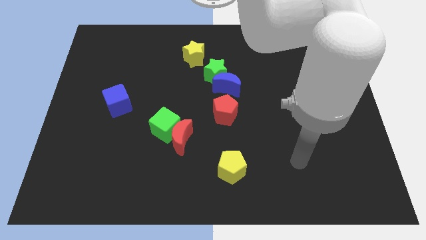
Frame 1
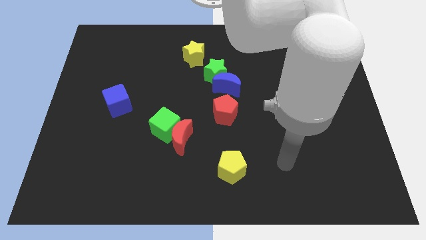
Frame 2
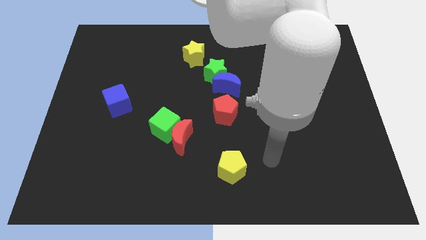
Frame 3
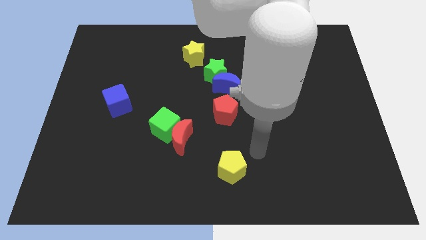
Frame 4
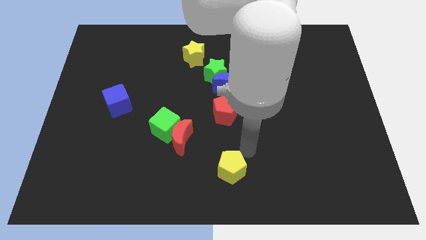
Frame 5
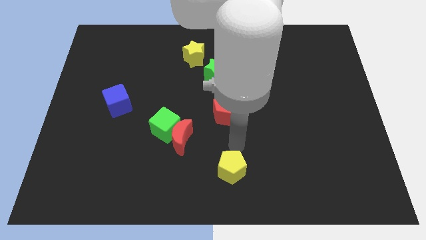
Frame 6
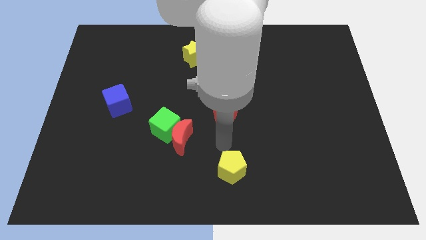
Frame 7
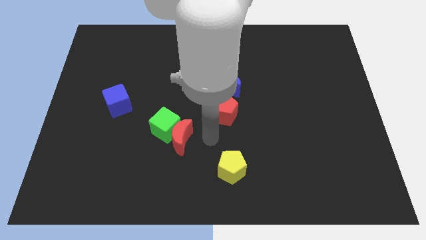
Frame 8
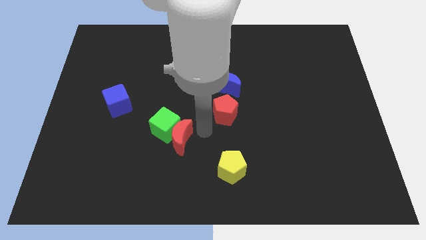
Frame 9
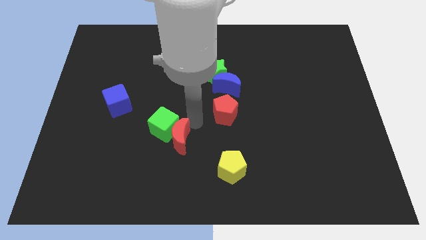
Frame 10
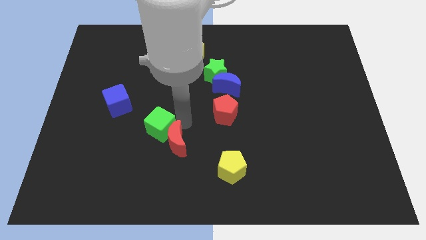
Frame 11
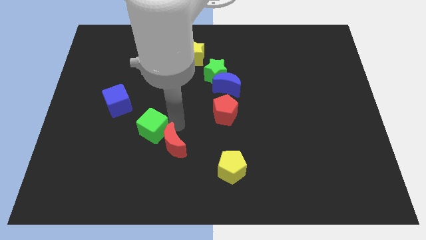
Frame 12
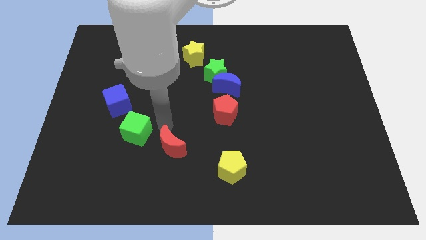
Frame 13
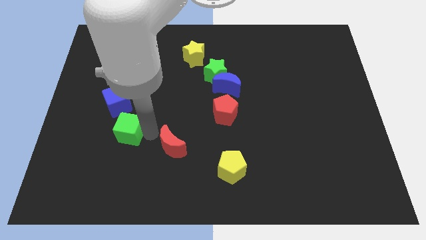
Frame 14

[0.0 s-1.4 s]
move the red moon away from the green cube

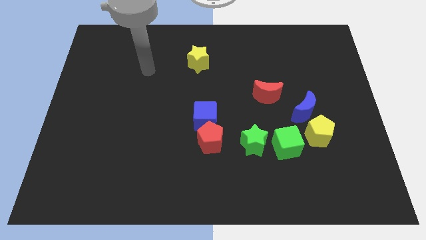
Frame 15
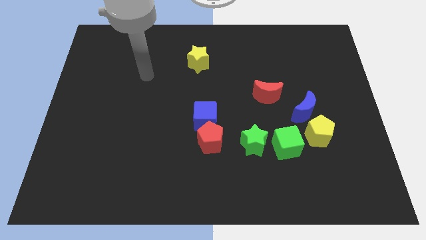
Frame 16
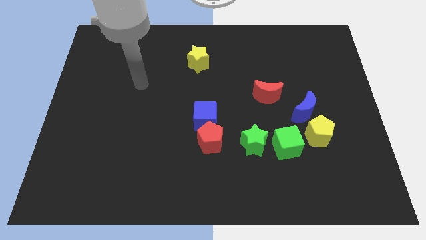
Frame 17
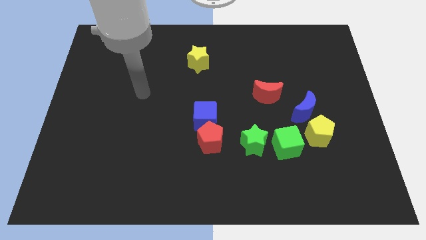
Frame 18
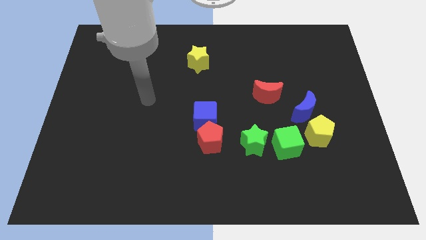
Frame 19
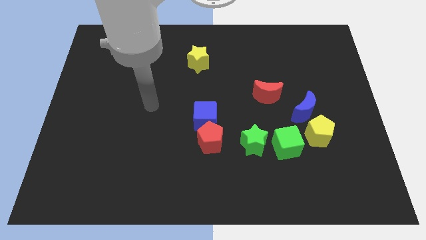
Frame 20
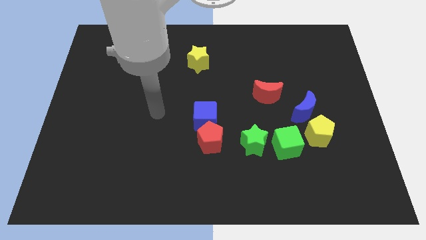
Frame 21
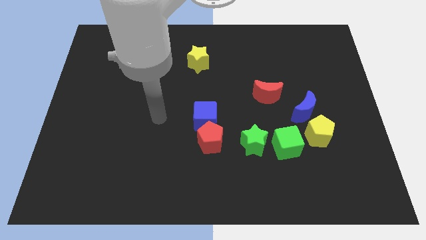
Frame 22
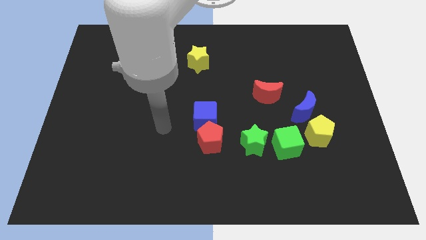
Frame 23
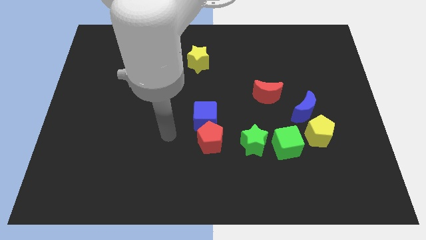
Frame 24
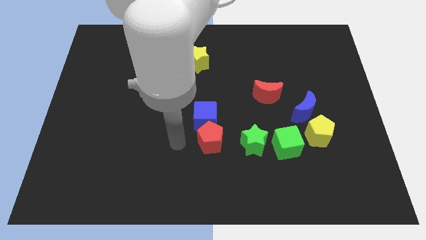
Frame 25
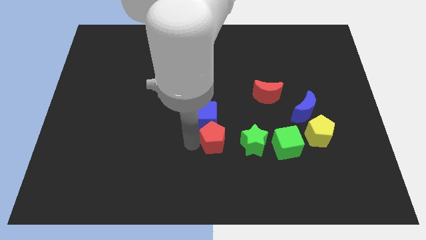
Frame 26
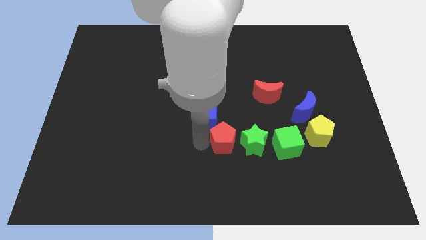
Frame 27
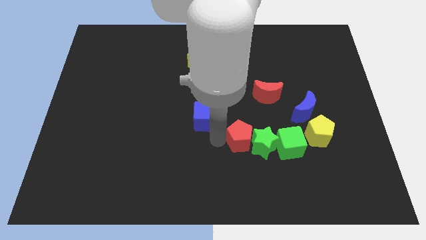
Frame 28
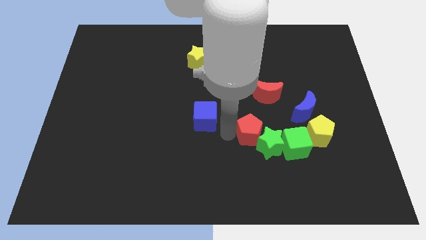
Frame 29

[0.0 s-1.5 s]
separate the blue cube from the red pentagon

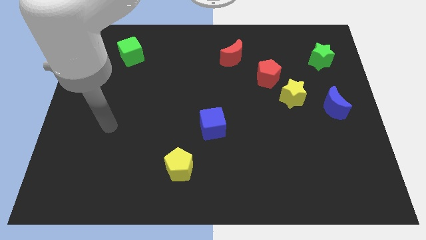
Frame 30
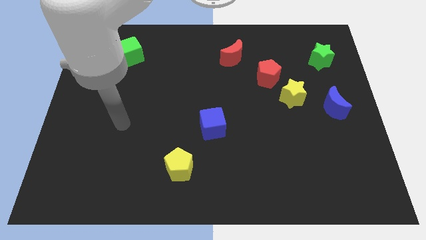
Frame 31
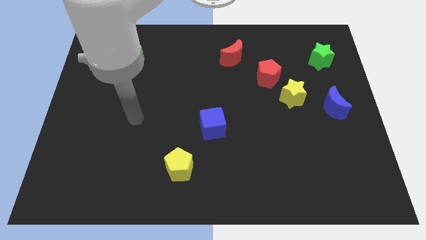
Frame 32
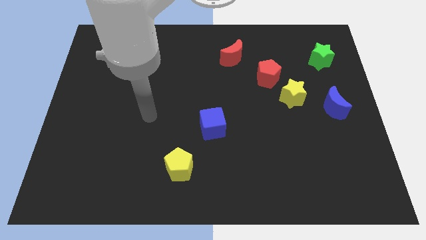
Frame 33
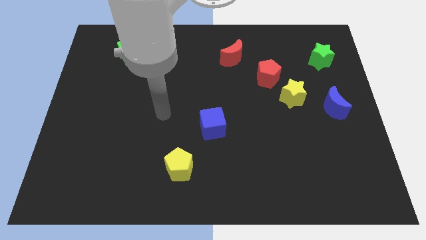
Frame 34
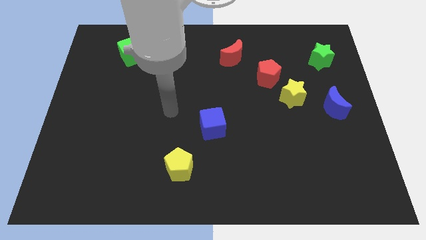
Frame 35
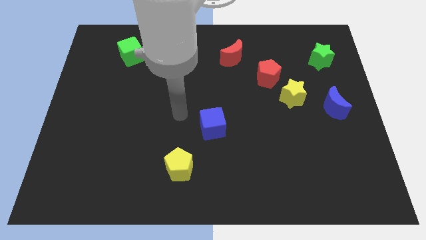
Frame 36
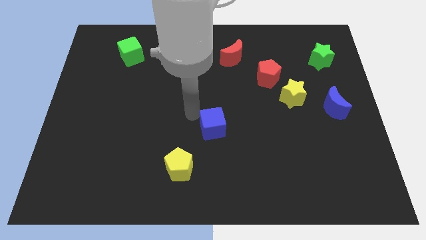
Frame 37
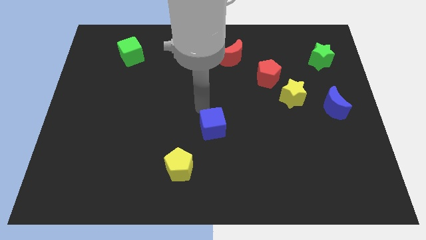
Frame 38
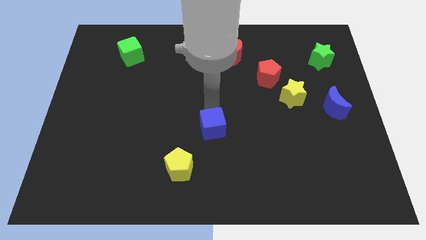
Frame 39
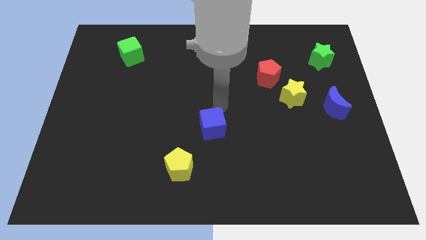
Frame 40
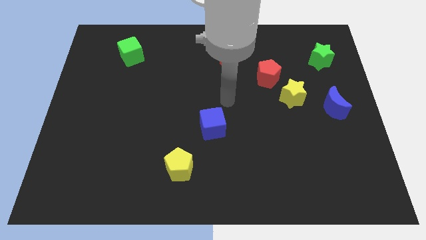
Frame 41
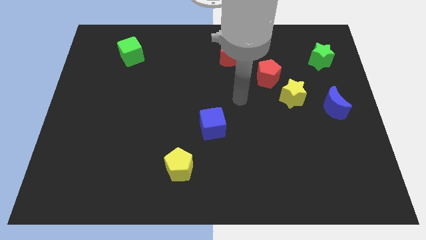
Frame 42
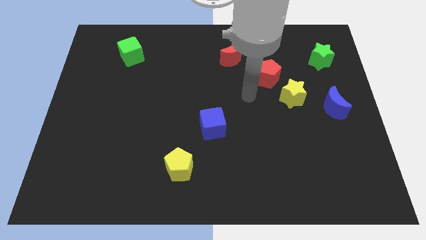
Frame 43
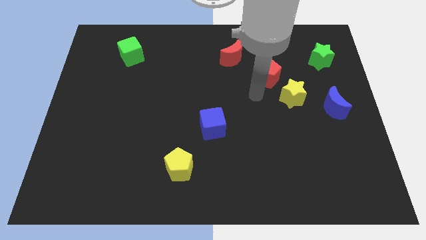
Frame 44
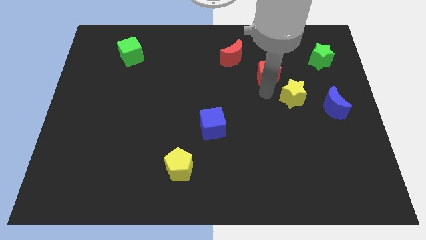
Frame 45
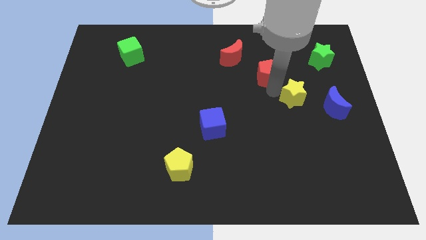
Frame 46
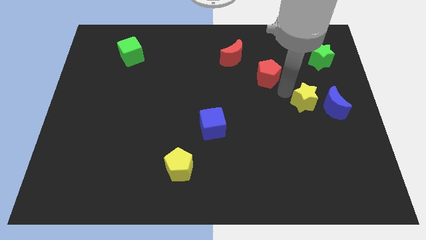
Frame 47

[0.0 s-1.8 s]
pull the red pentagon apart from the yellow star

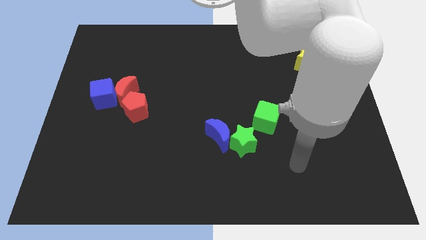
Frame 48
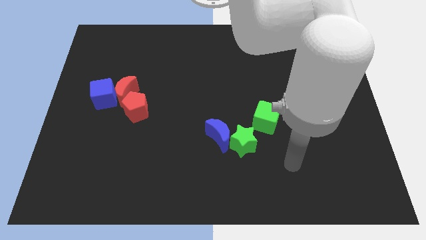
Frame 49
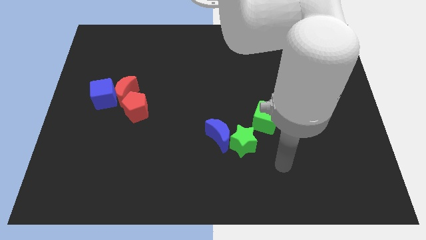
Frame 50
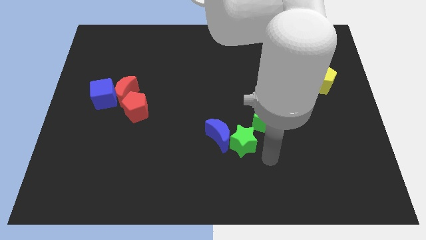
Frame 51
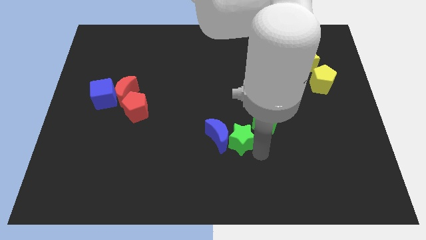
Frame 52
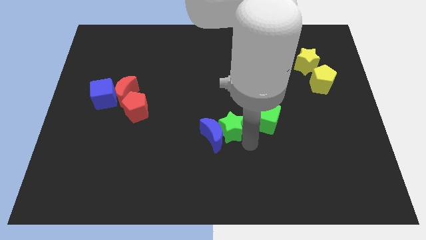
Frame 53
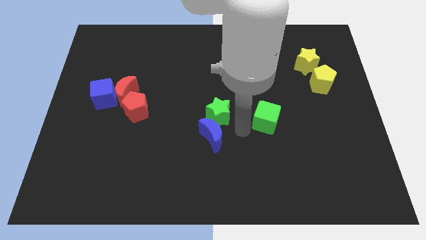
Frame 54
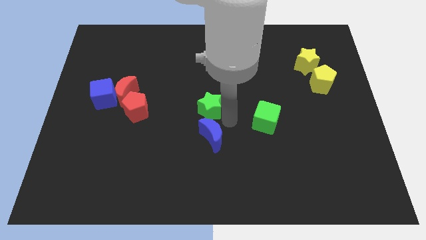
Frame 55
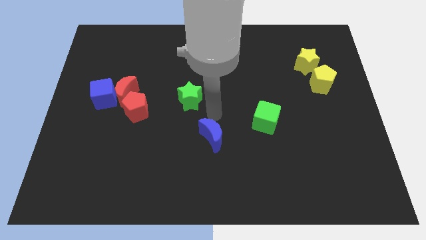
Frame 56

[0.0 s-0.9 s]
separate the blue moon from the green star

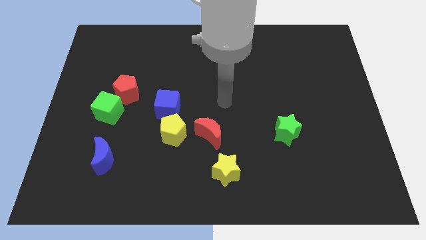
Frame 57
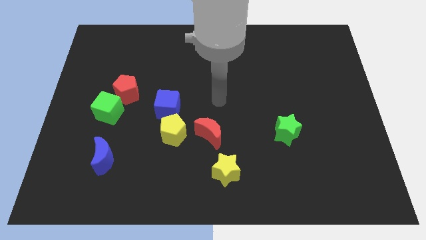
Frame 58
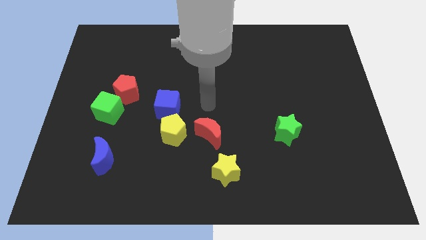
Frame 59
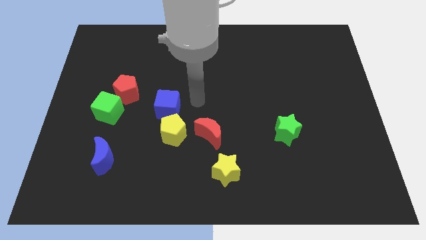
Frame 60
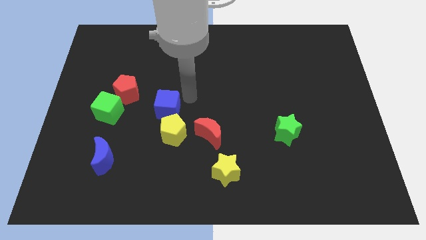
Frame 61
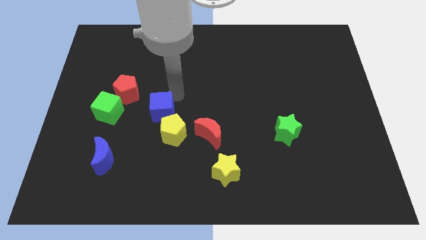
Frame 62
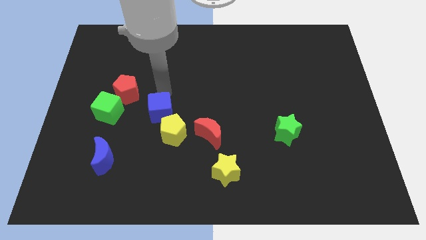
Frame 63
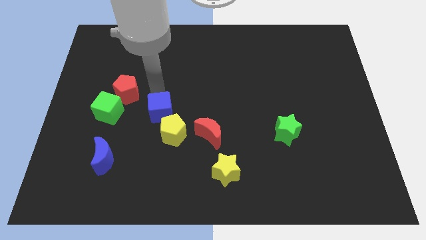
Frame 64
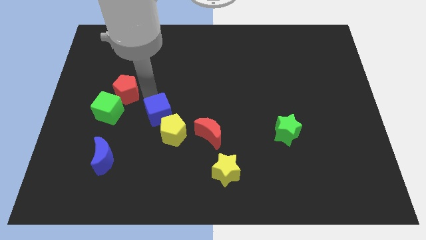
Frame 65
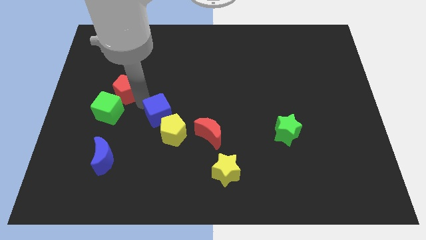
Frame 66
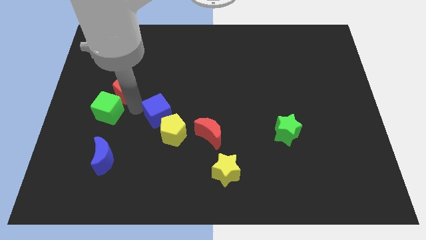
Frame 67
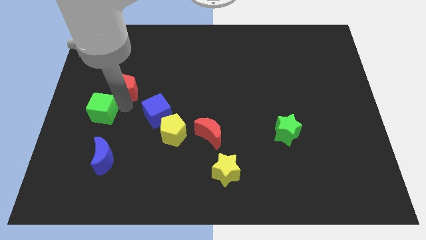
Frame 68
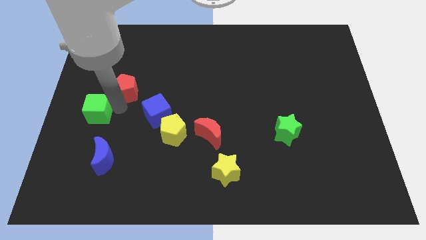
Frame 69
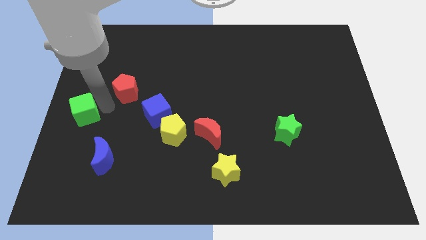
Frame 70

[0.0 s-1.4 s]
move the red pentagon away from the green cube

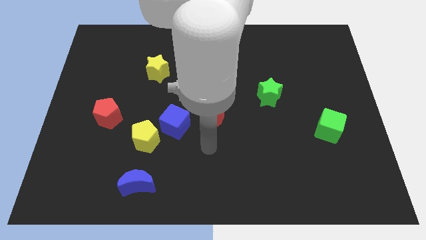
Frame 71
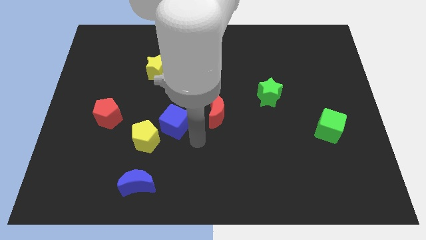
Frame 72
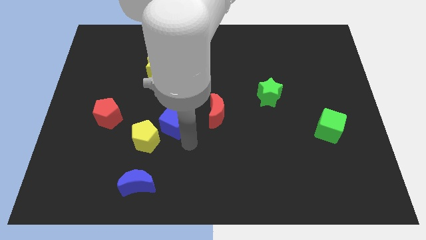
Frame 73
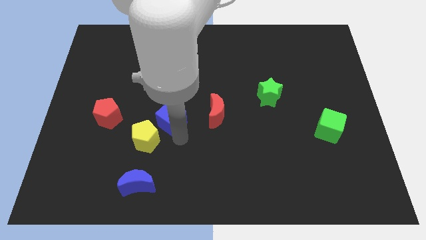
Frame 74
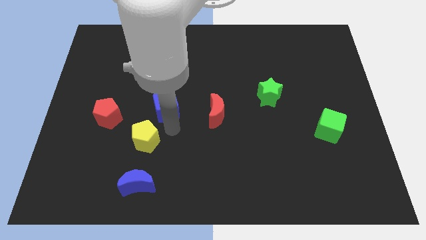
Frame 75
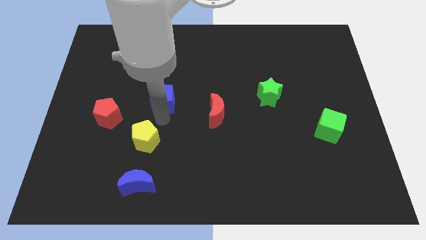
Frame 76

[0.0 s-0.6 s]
pull the yellow pentagon apart from the blue cube

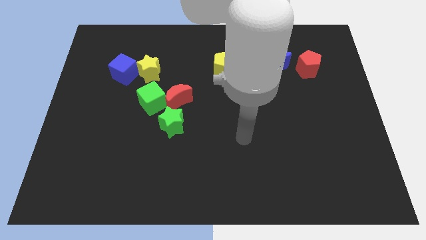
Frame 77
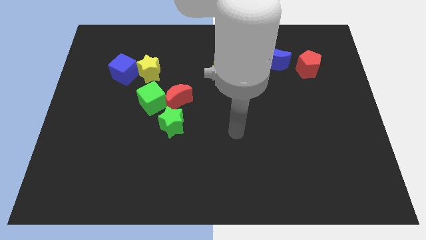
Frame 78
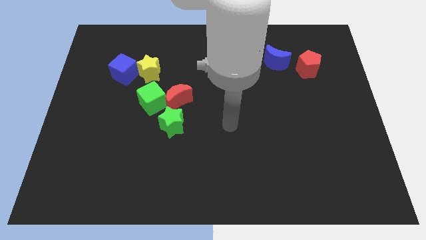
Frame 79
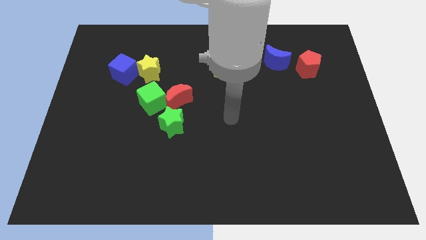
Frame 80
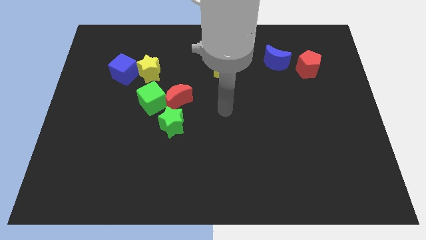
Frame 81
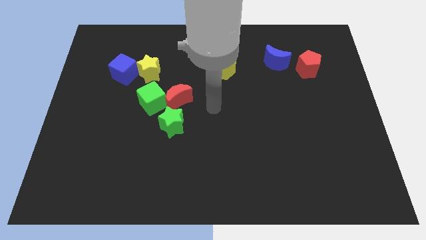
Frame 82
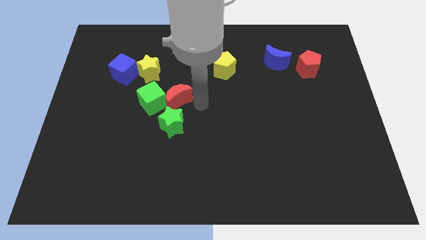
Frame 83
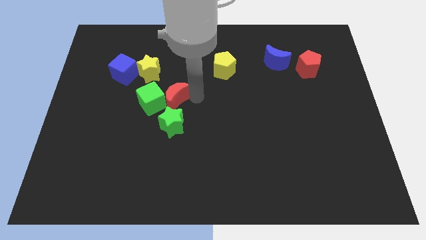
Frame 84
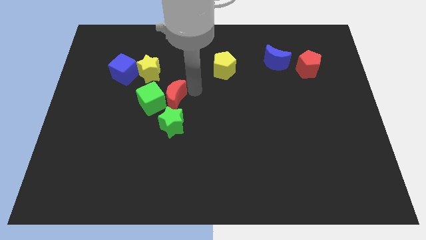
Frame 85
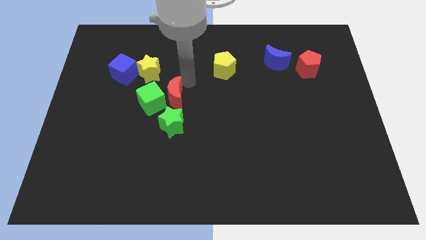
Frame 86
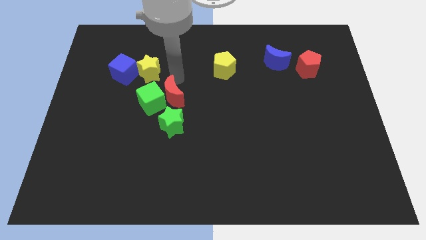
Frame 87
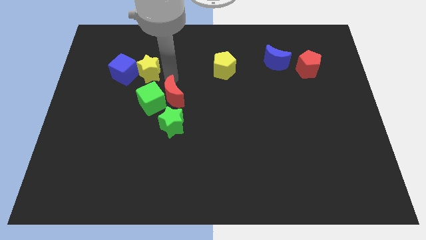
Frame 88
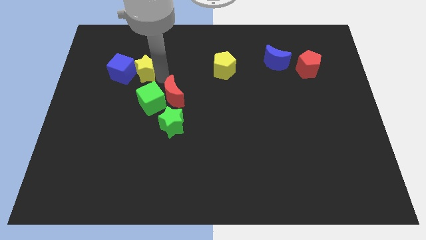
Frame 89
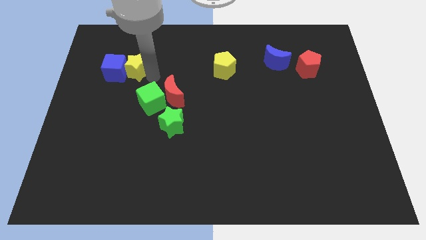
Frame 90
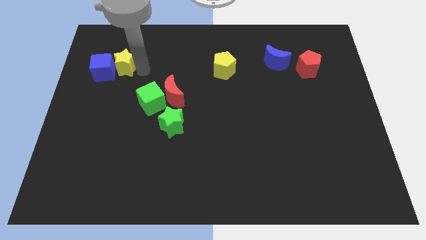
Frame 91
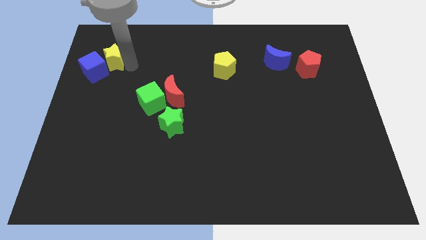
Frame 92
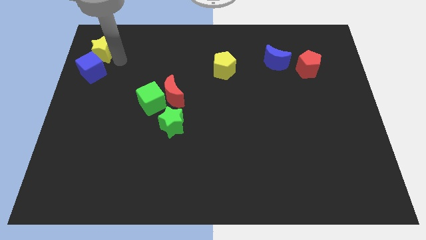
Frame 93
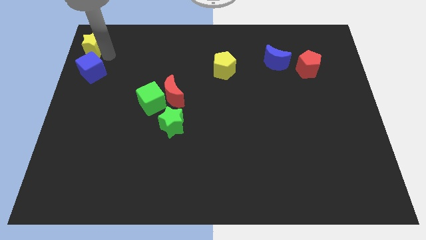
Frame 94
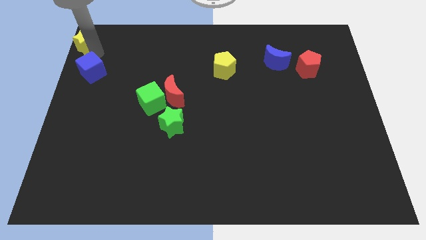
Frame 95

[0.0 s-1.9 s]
separate the blue cube from the yellow star
